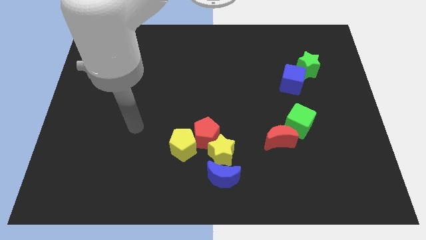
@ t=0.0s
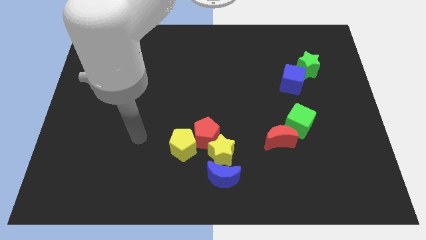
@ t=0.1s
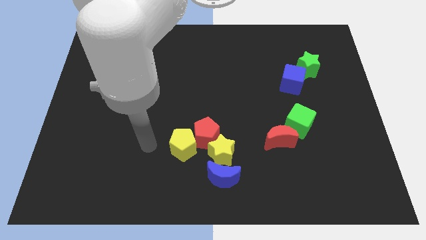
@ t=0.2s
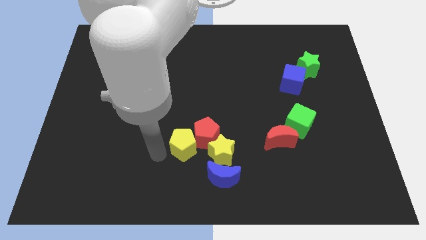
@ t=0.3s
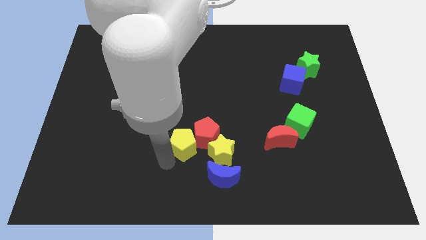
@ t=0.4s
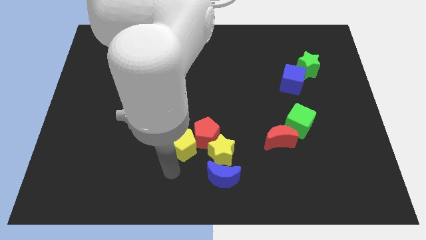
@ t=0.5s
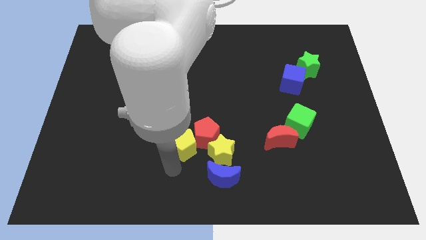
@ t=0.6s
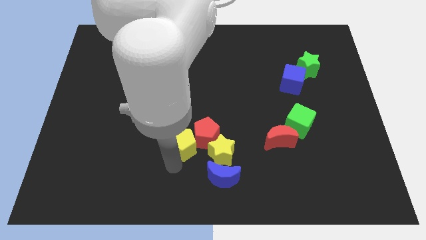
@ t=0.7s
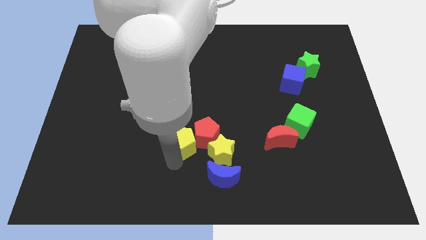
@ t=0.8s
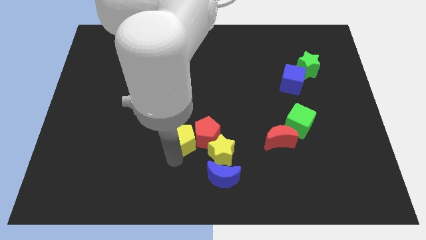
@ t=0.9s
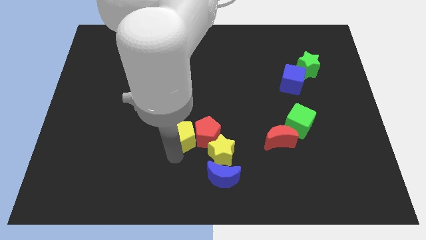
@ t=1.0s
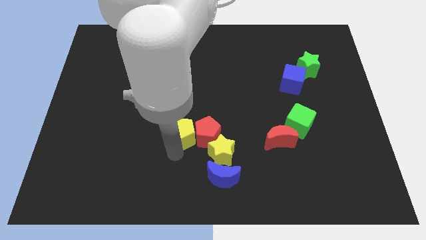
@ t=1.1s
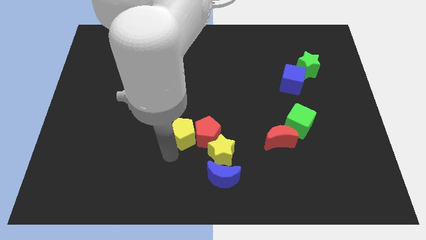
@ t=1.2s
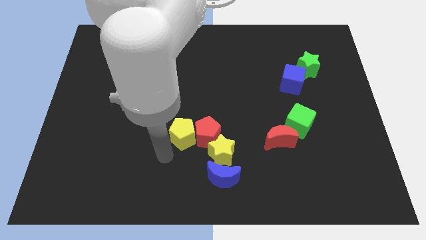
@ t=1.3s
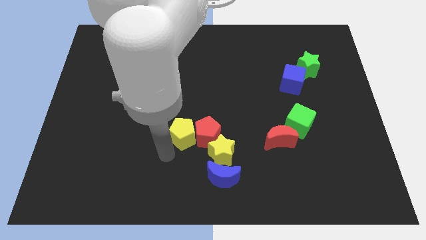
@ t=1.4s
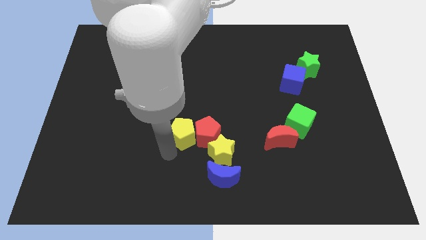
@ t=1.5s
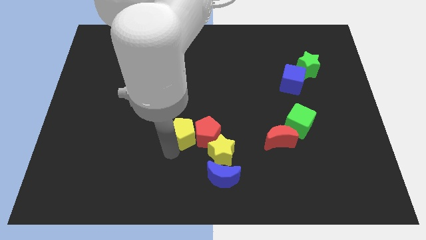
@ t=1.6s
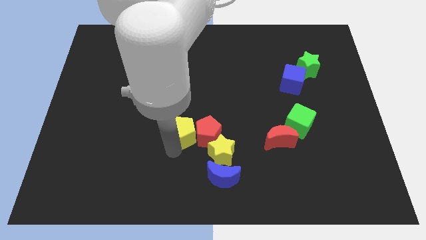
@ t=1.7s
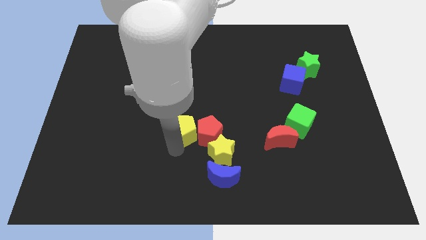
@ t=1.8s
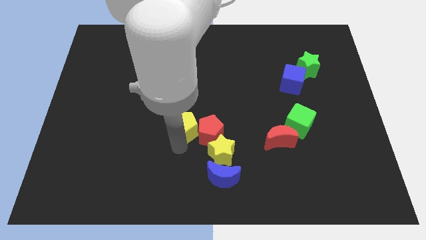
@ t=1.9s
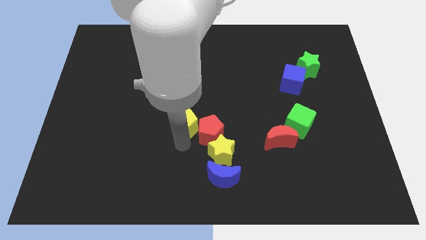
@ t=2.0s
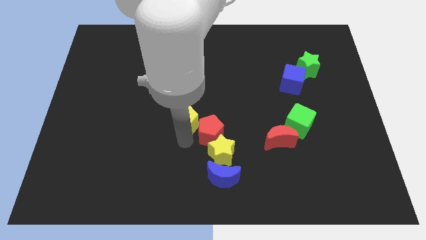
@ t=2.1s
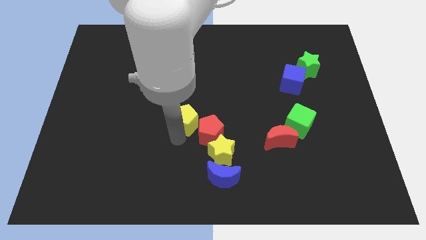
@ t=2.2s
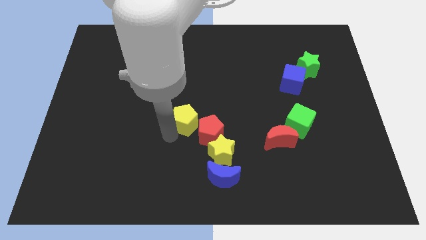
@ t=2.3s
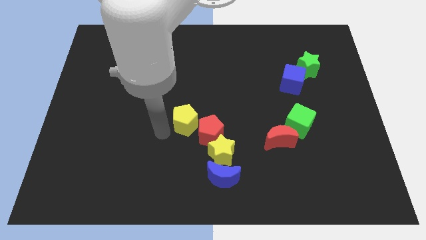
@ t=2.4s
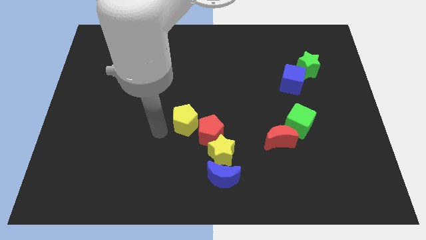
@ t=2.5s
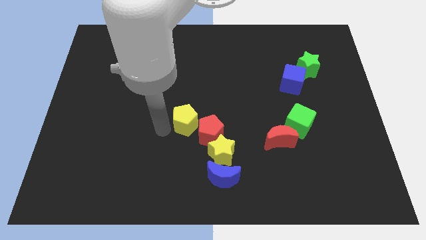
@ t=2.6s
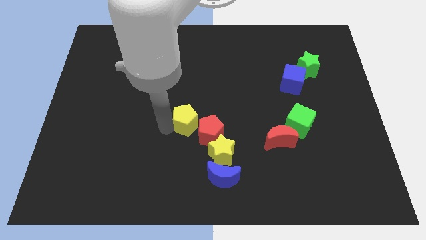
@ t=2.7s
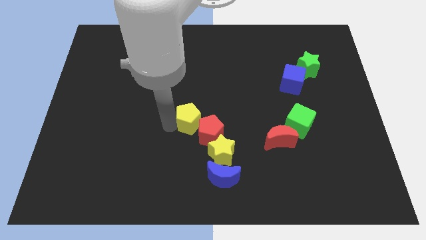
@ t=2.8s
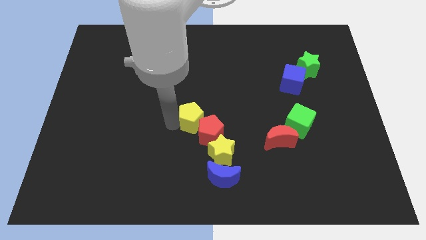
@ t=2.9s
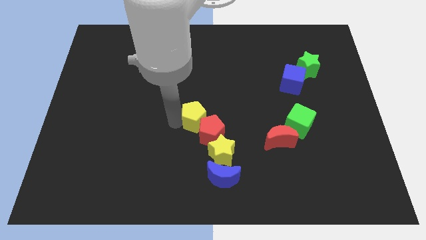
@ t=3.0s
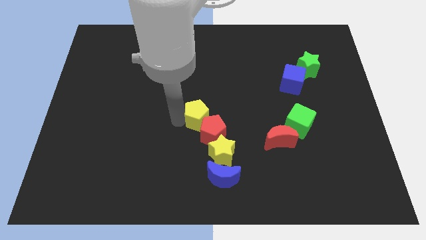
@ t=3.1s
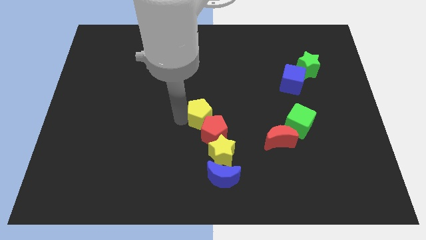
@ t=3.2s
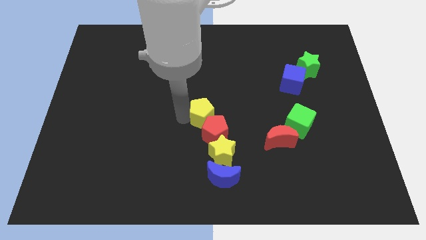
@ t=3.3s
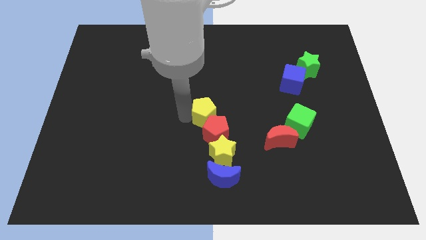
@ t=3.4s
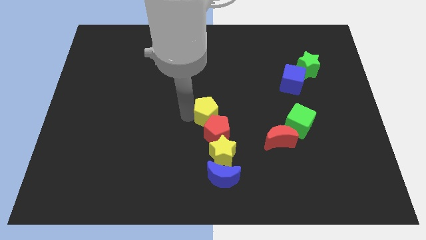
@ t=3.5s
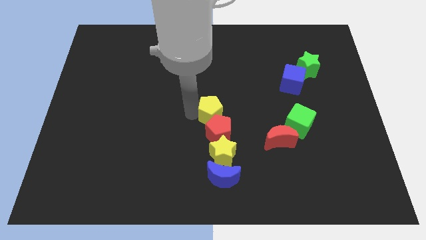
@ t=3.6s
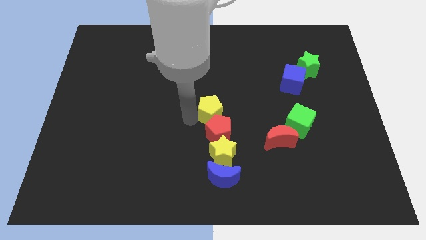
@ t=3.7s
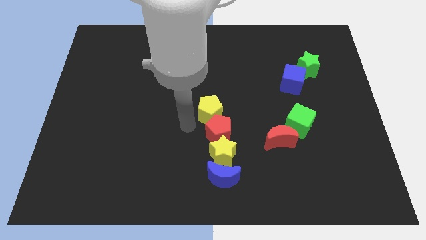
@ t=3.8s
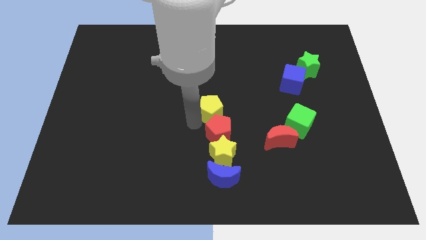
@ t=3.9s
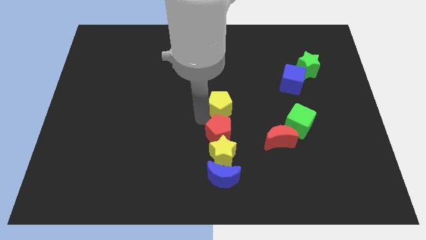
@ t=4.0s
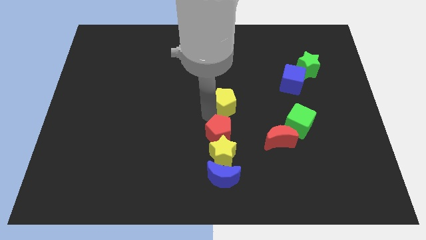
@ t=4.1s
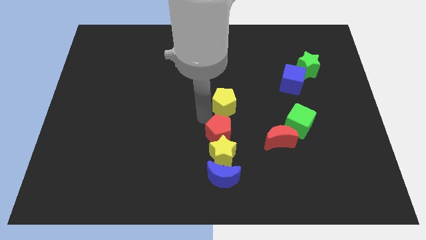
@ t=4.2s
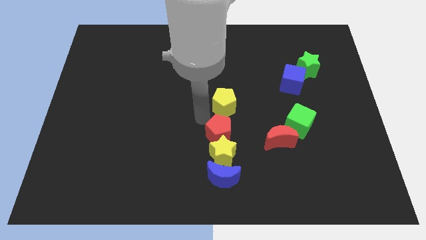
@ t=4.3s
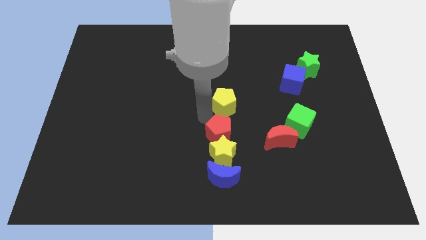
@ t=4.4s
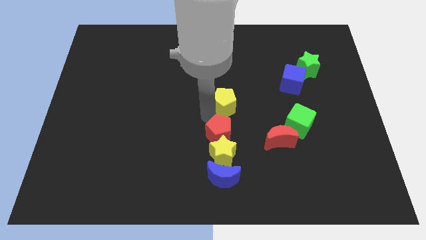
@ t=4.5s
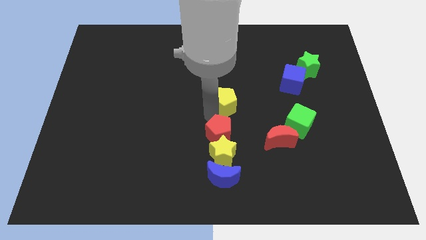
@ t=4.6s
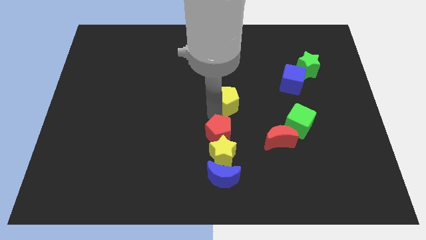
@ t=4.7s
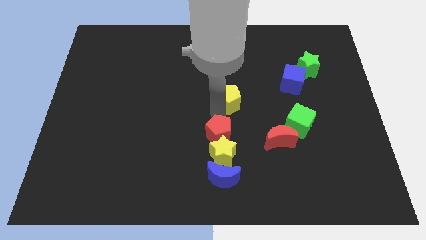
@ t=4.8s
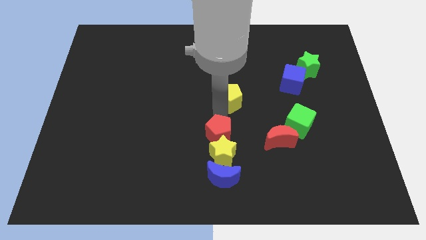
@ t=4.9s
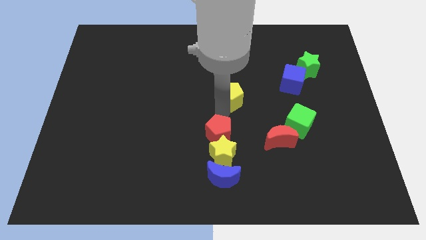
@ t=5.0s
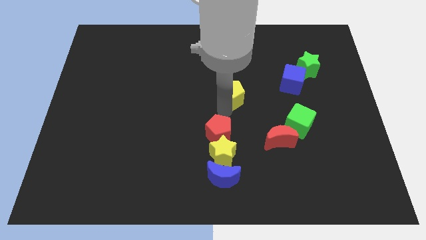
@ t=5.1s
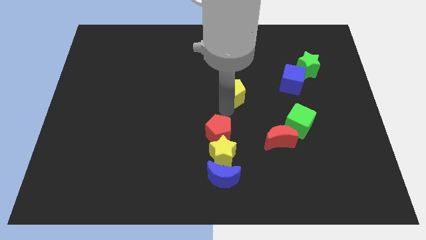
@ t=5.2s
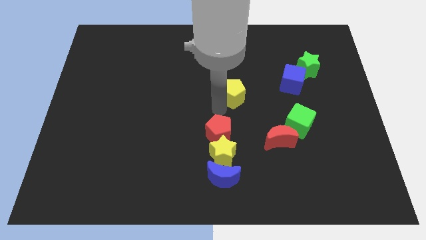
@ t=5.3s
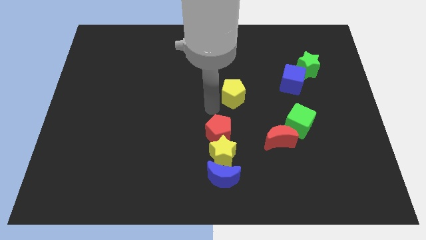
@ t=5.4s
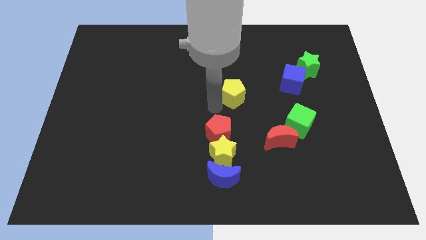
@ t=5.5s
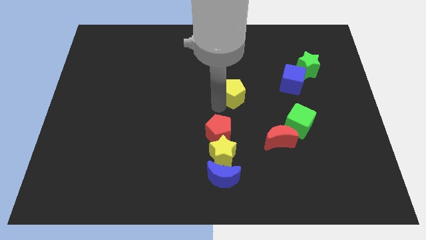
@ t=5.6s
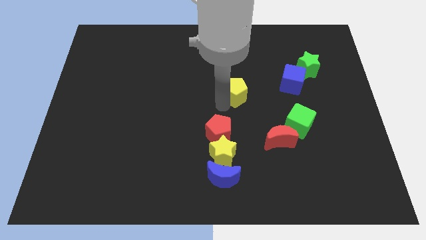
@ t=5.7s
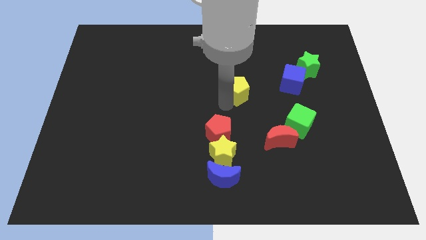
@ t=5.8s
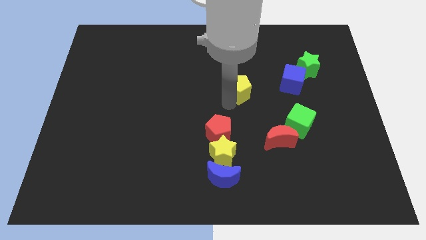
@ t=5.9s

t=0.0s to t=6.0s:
slide the yellow pentagon up and then right

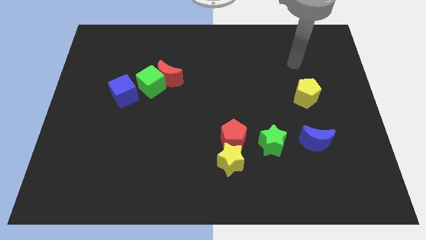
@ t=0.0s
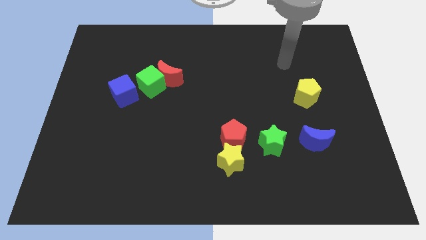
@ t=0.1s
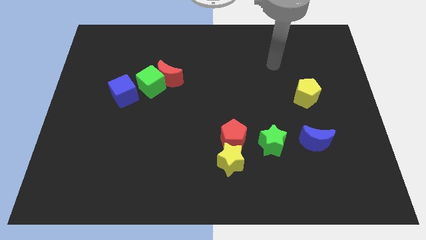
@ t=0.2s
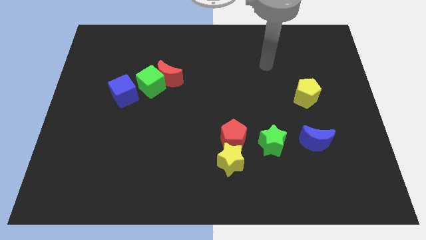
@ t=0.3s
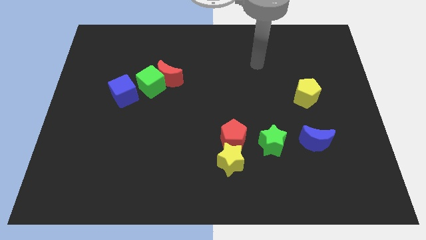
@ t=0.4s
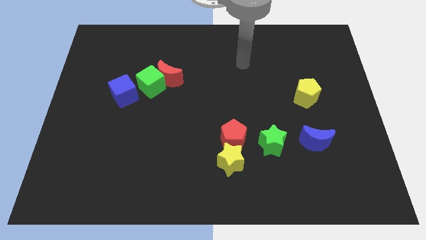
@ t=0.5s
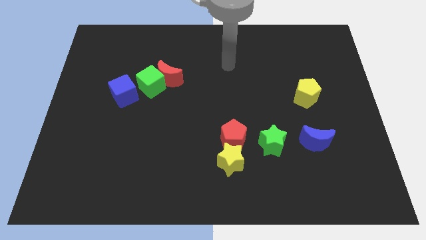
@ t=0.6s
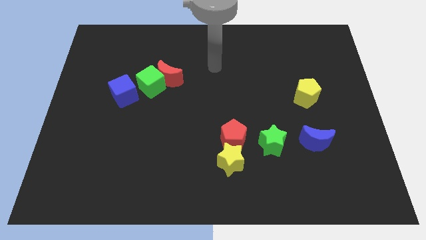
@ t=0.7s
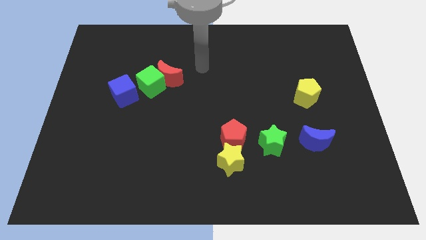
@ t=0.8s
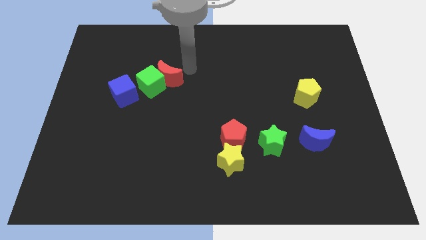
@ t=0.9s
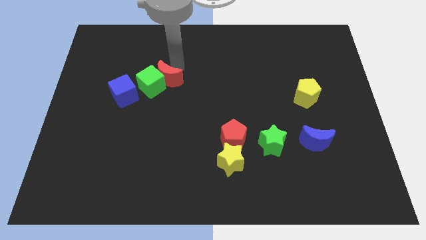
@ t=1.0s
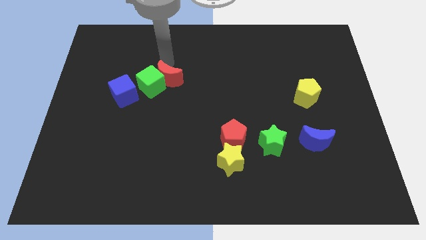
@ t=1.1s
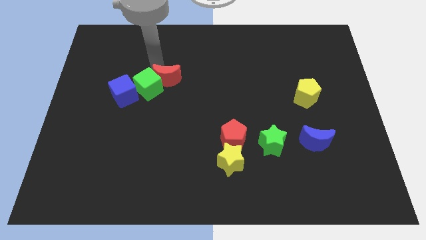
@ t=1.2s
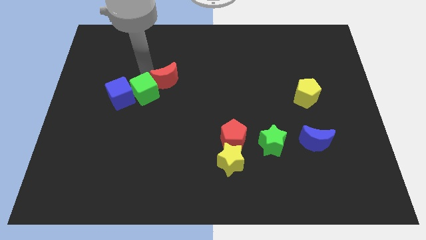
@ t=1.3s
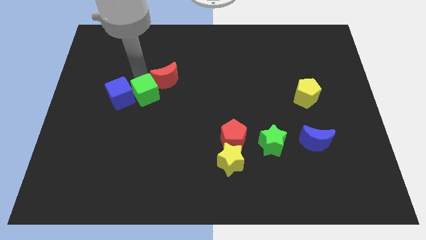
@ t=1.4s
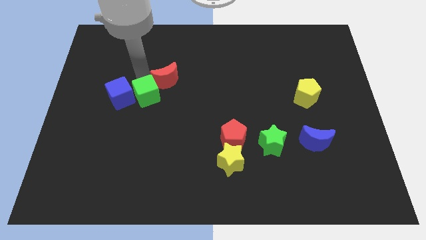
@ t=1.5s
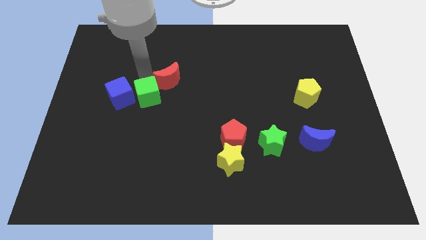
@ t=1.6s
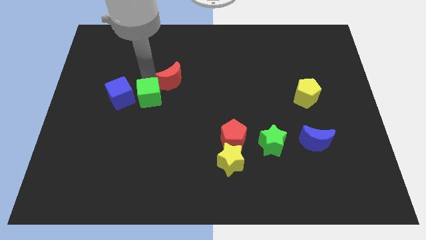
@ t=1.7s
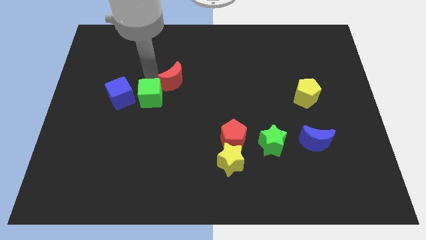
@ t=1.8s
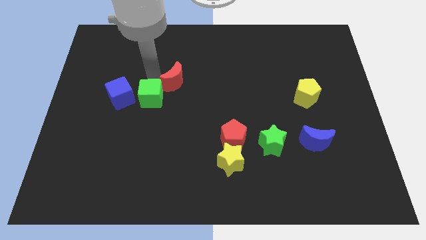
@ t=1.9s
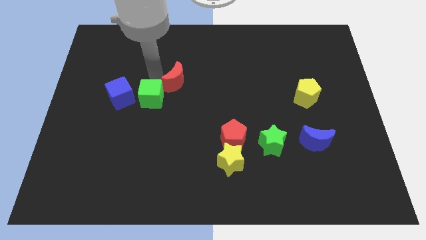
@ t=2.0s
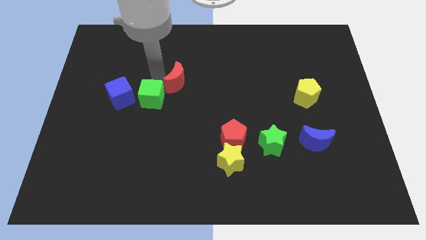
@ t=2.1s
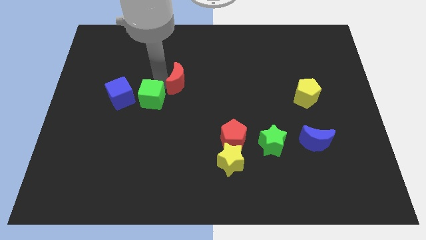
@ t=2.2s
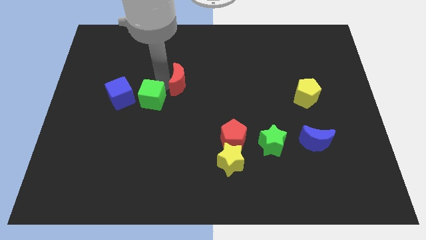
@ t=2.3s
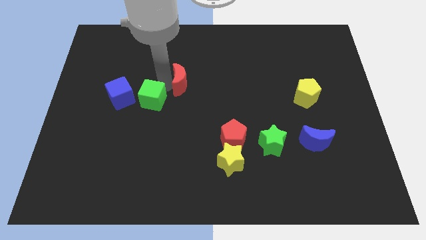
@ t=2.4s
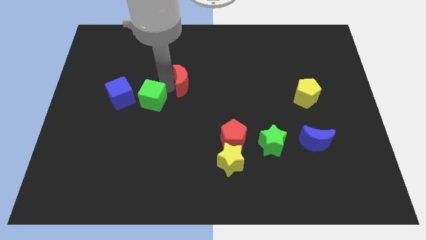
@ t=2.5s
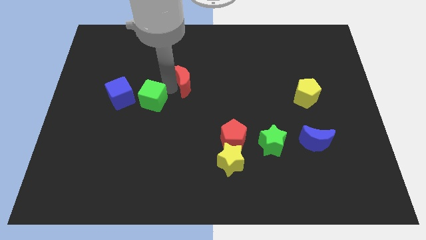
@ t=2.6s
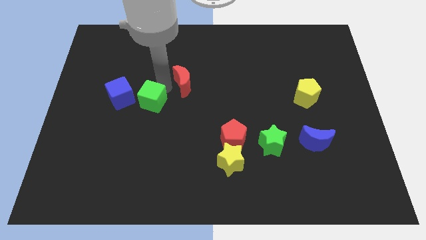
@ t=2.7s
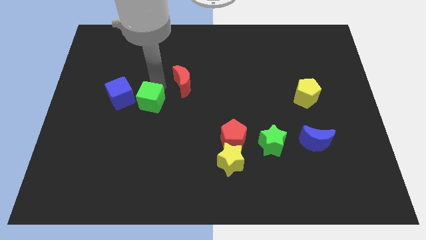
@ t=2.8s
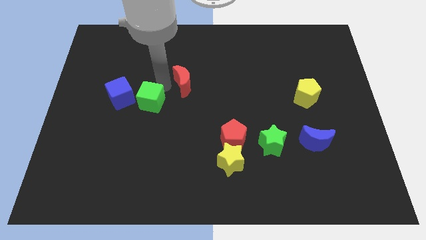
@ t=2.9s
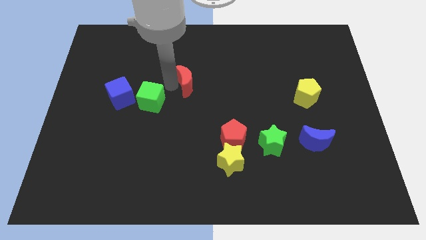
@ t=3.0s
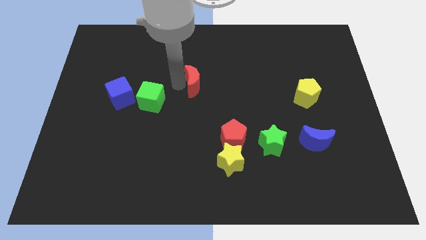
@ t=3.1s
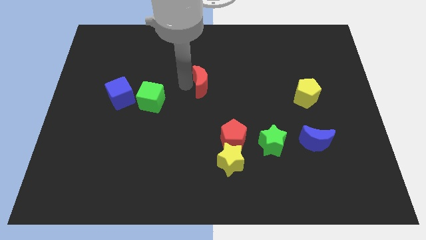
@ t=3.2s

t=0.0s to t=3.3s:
move the red moon a bit to the right
